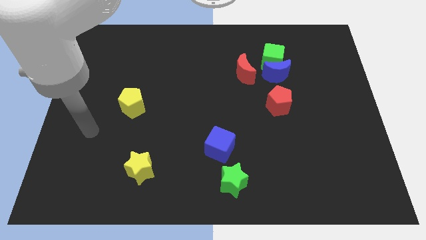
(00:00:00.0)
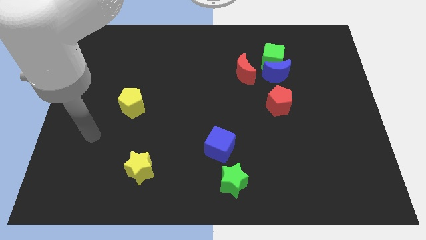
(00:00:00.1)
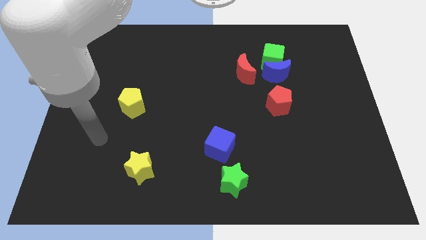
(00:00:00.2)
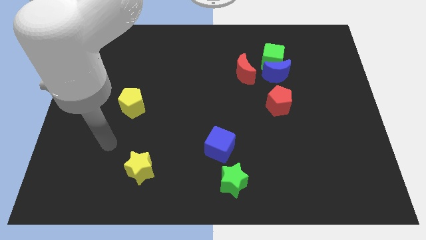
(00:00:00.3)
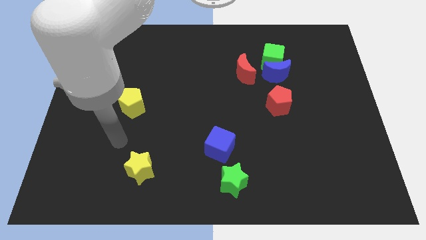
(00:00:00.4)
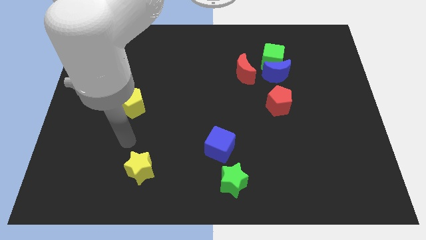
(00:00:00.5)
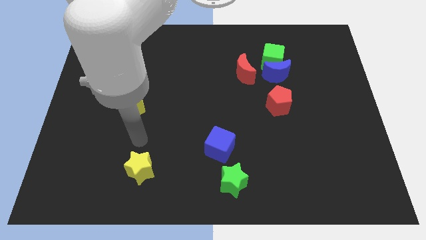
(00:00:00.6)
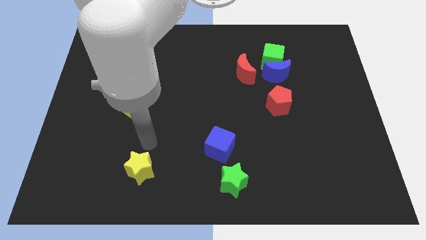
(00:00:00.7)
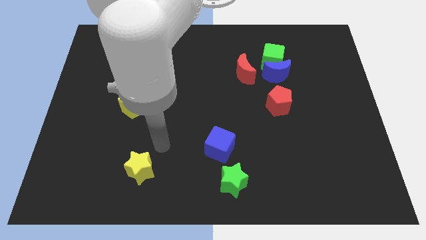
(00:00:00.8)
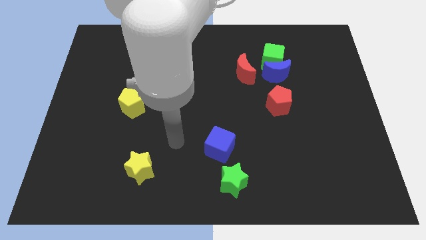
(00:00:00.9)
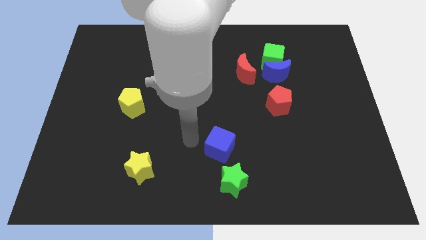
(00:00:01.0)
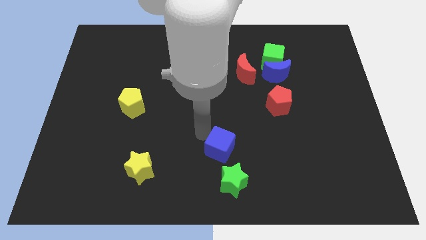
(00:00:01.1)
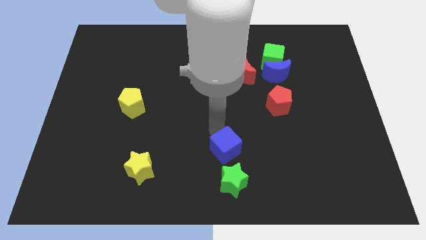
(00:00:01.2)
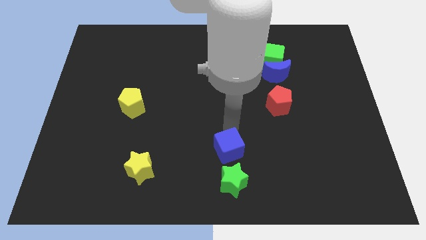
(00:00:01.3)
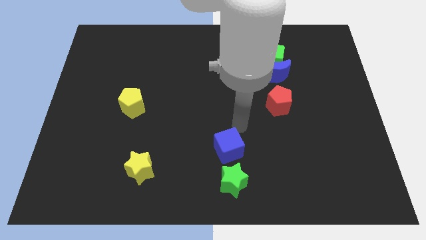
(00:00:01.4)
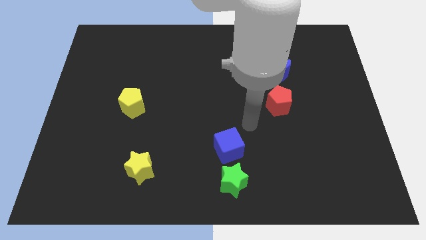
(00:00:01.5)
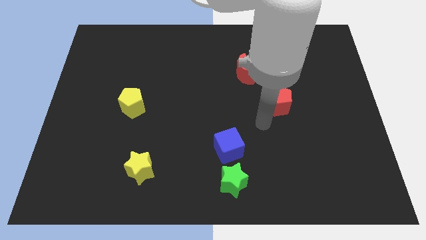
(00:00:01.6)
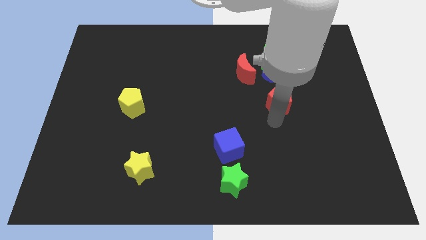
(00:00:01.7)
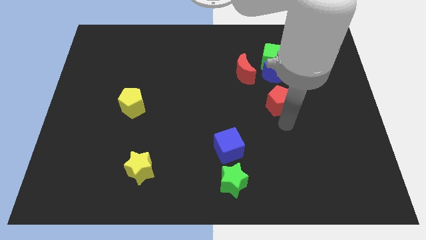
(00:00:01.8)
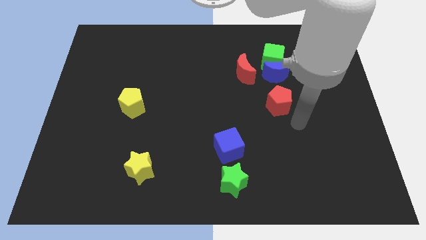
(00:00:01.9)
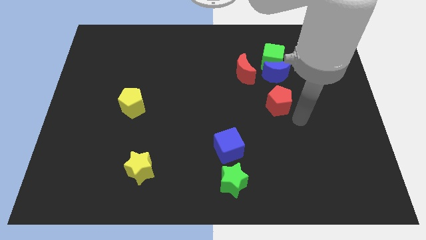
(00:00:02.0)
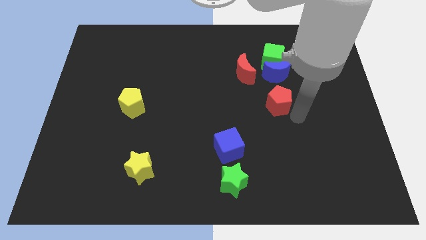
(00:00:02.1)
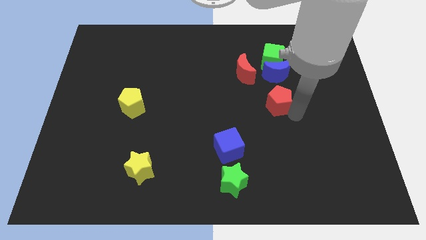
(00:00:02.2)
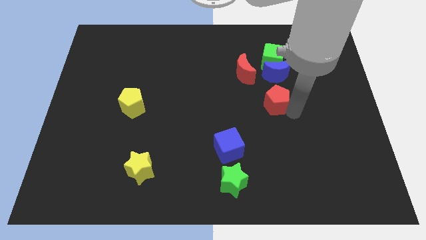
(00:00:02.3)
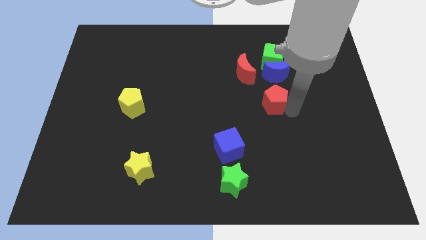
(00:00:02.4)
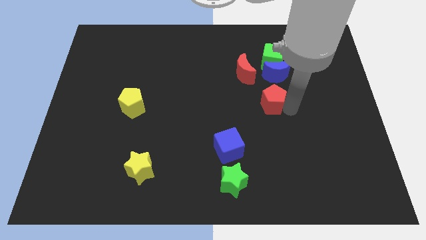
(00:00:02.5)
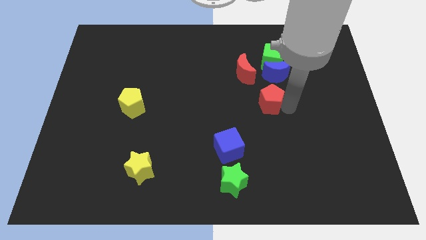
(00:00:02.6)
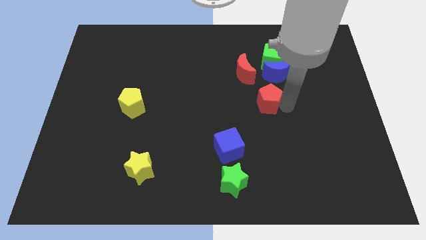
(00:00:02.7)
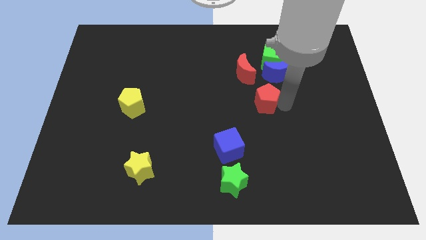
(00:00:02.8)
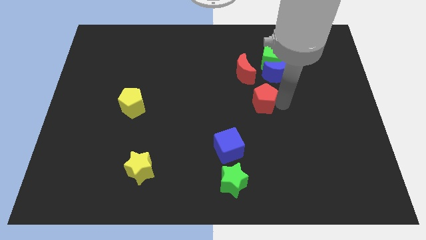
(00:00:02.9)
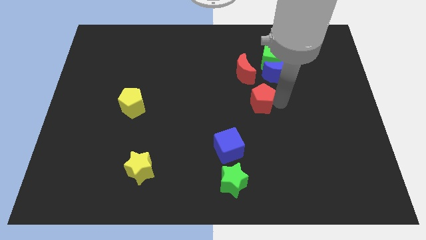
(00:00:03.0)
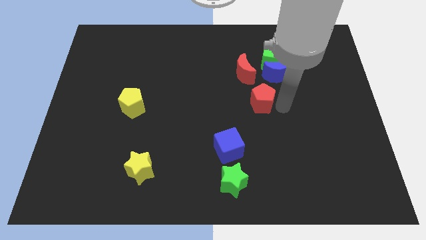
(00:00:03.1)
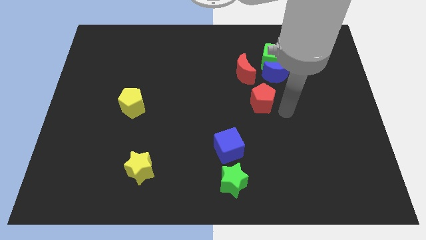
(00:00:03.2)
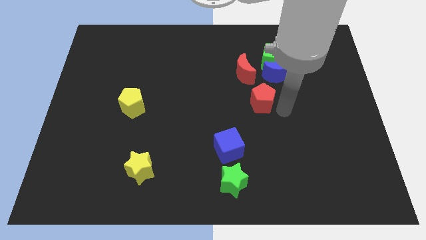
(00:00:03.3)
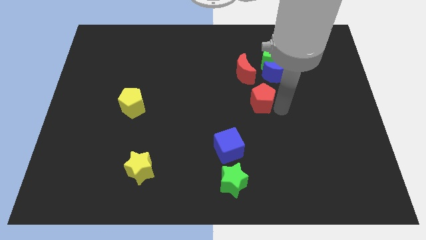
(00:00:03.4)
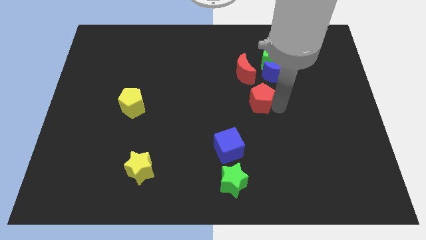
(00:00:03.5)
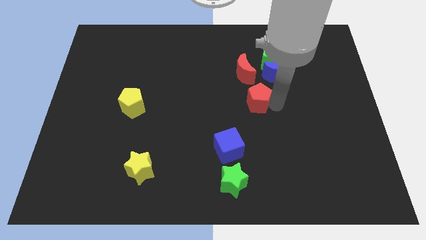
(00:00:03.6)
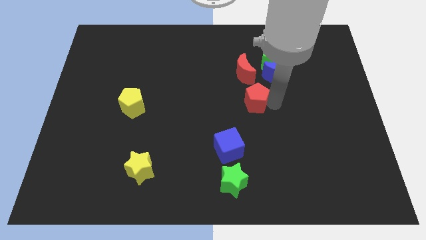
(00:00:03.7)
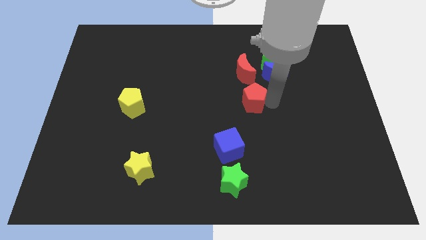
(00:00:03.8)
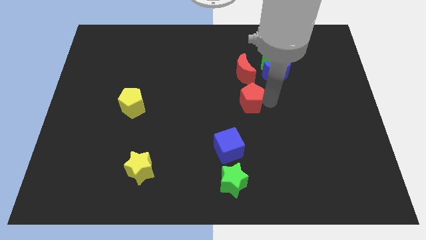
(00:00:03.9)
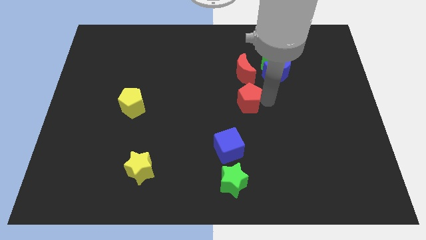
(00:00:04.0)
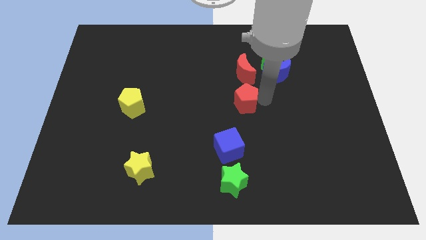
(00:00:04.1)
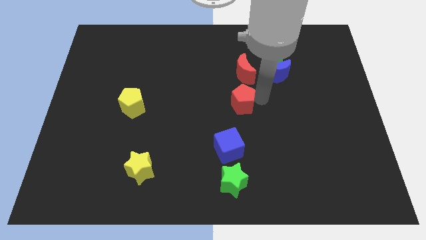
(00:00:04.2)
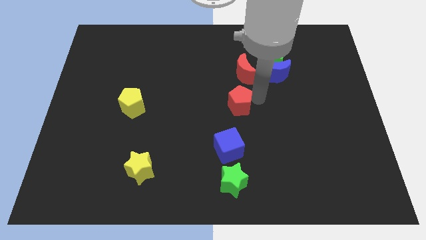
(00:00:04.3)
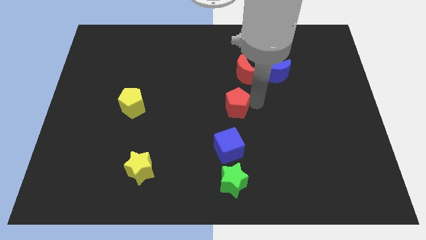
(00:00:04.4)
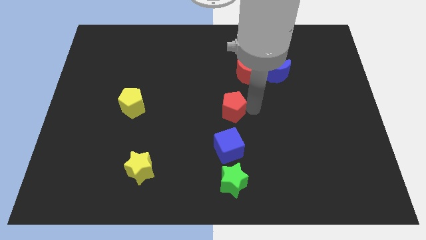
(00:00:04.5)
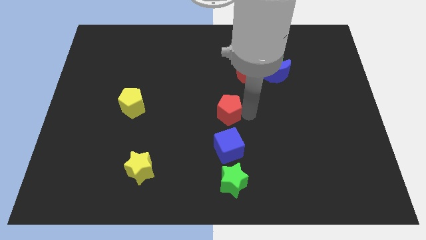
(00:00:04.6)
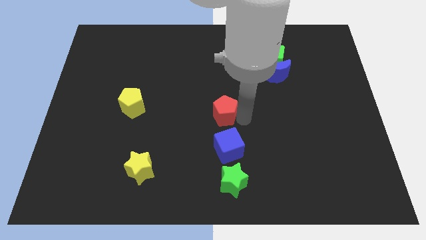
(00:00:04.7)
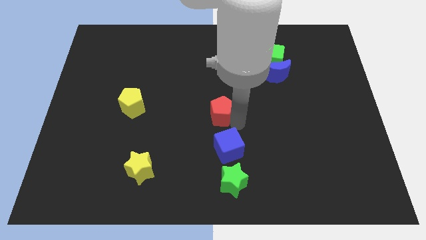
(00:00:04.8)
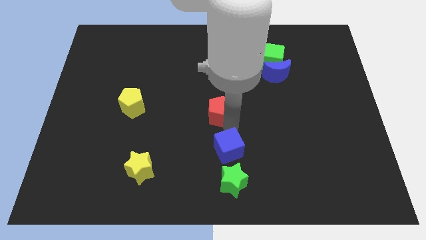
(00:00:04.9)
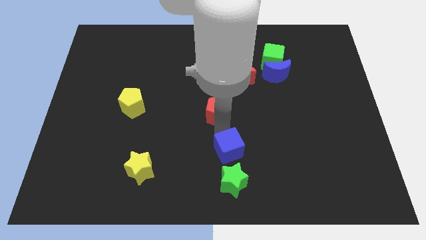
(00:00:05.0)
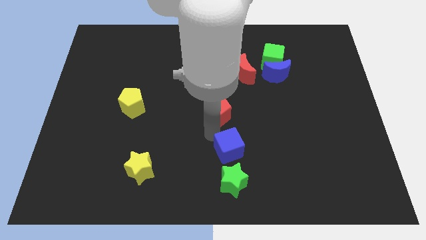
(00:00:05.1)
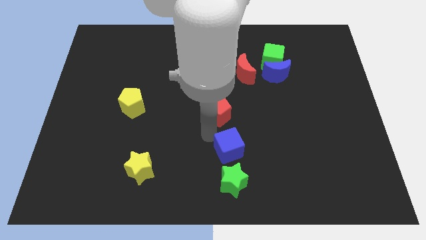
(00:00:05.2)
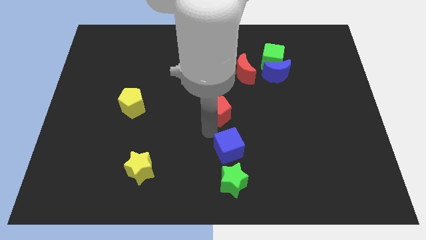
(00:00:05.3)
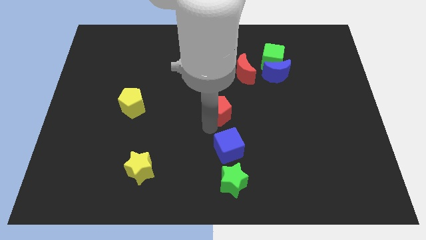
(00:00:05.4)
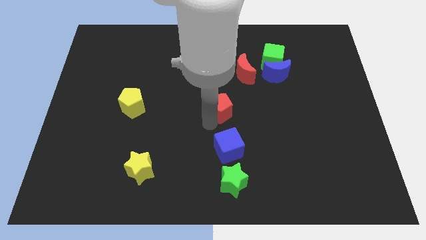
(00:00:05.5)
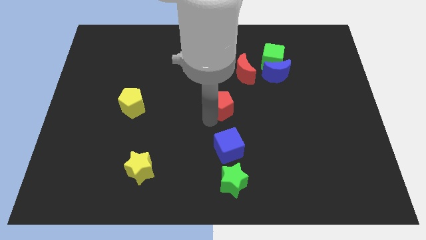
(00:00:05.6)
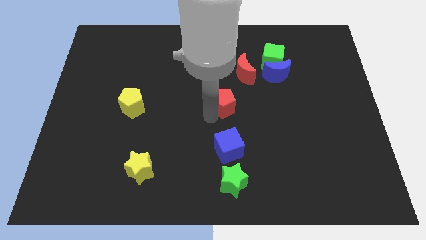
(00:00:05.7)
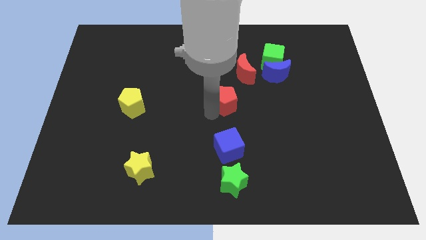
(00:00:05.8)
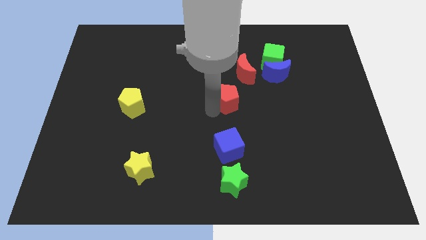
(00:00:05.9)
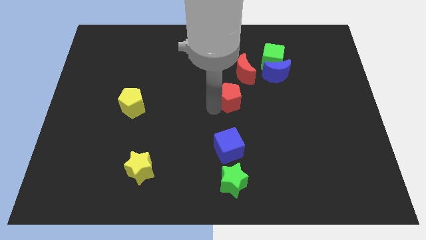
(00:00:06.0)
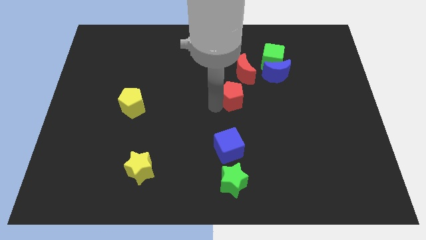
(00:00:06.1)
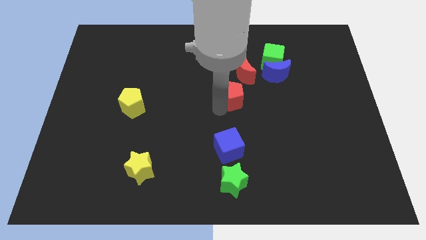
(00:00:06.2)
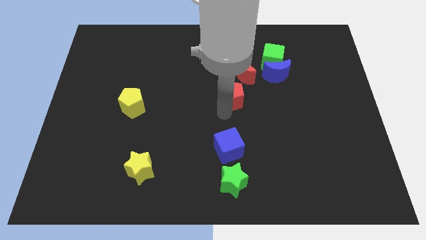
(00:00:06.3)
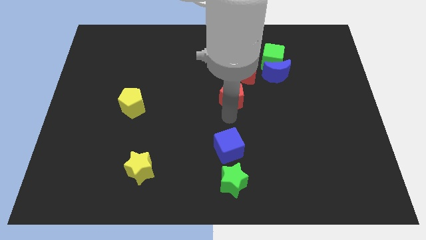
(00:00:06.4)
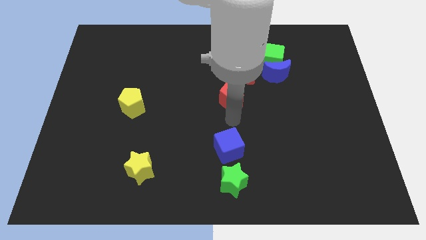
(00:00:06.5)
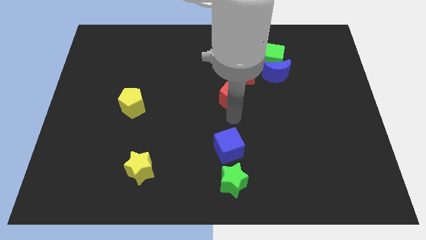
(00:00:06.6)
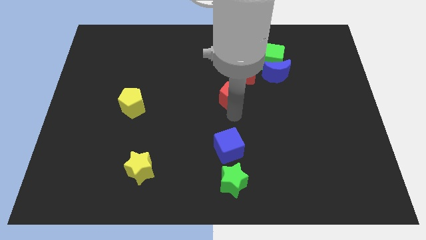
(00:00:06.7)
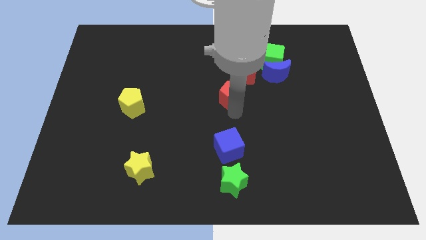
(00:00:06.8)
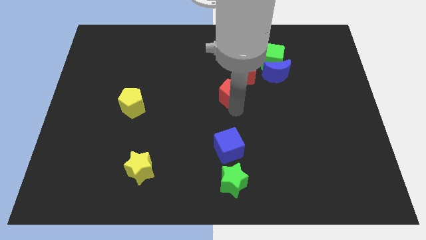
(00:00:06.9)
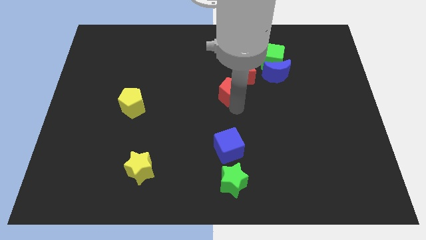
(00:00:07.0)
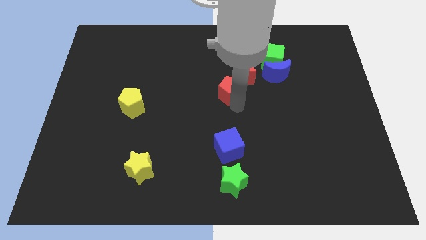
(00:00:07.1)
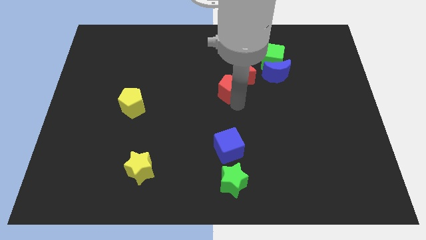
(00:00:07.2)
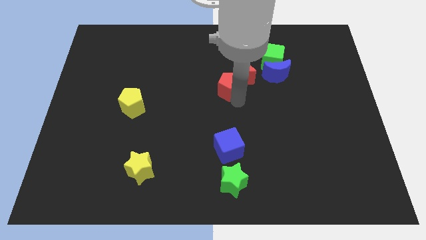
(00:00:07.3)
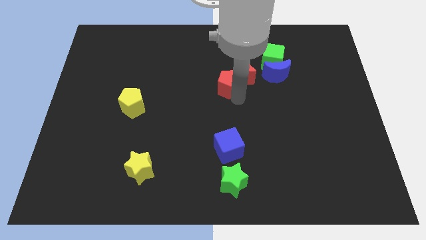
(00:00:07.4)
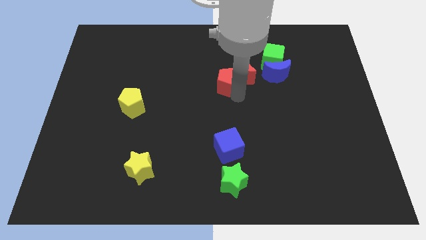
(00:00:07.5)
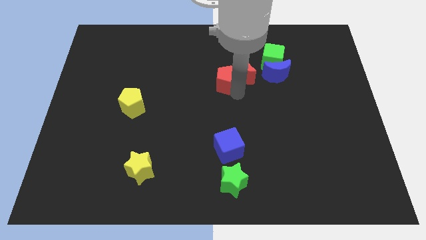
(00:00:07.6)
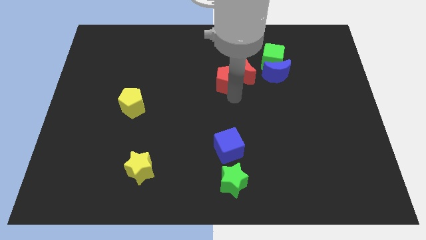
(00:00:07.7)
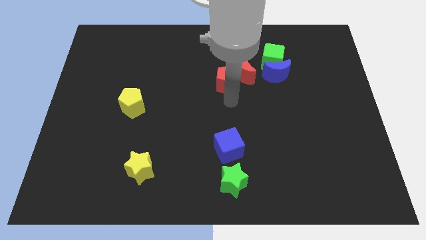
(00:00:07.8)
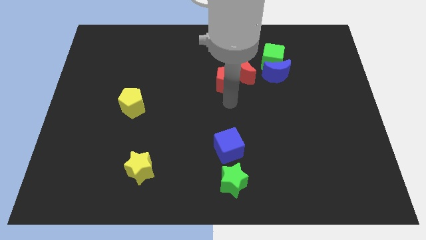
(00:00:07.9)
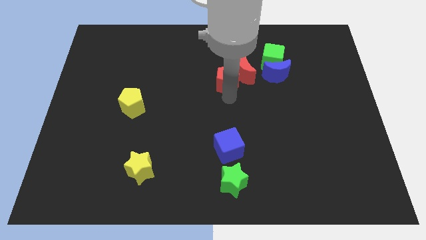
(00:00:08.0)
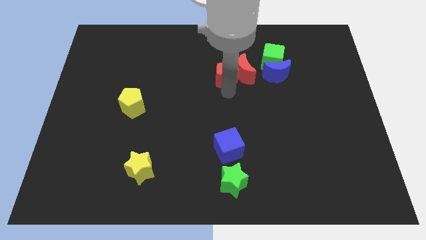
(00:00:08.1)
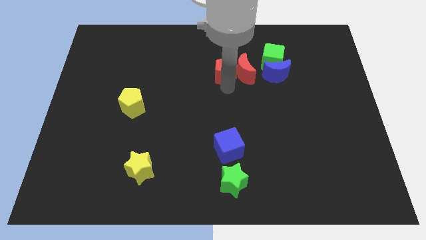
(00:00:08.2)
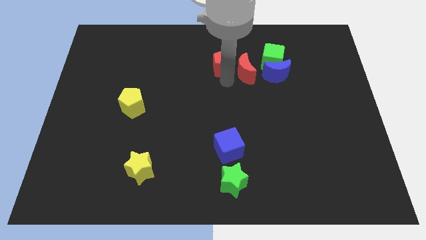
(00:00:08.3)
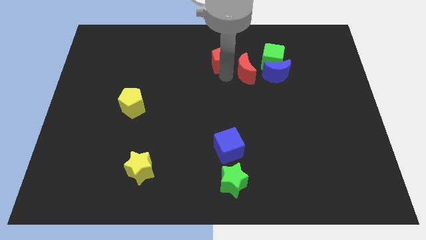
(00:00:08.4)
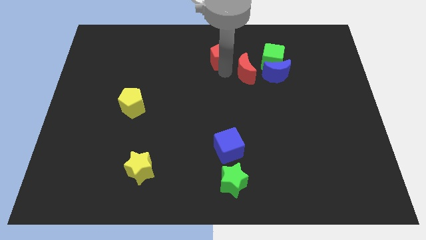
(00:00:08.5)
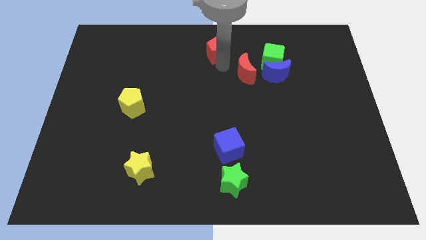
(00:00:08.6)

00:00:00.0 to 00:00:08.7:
put the red pentagon to the towards your base
